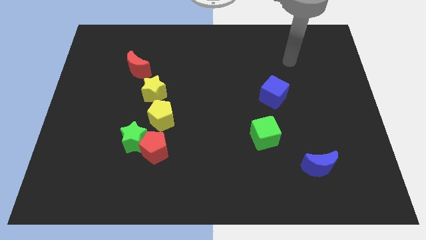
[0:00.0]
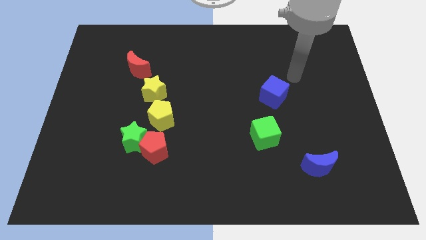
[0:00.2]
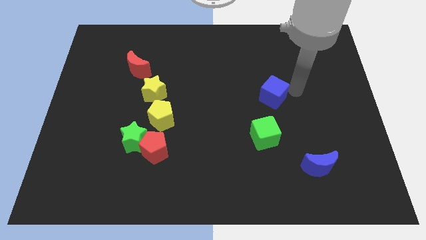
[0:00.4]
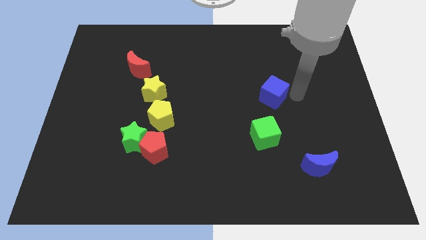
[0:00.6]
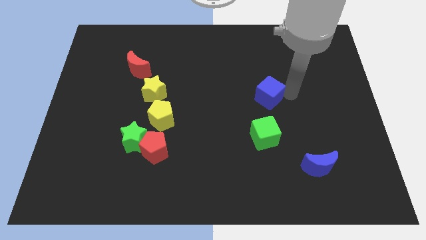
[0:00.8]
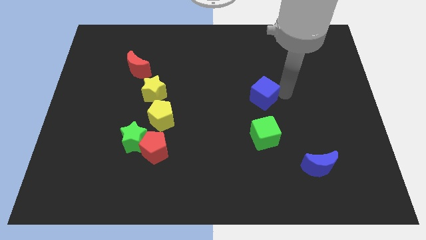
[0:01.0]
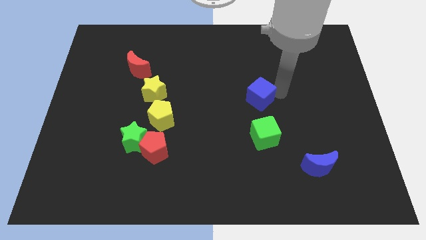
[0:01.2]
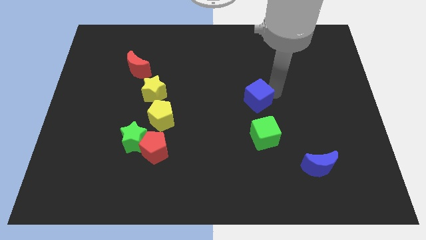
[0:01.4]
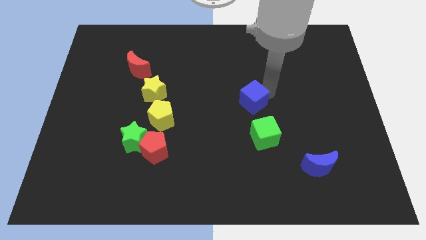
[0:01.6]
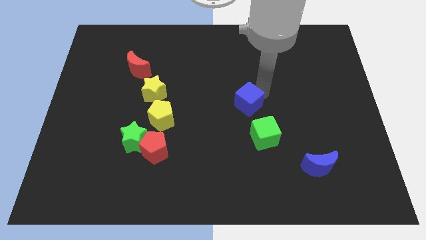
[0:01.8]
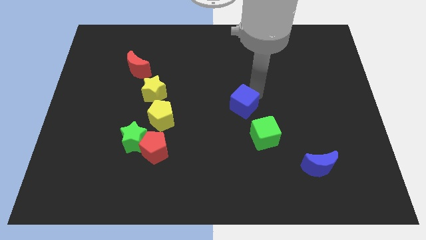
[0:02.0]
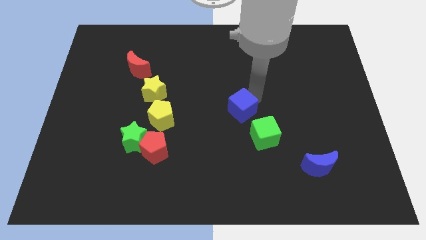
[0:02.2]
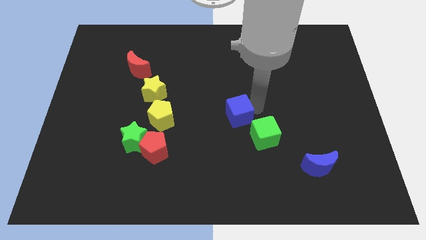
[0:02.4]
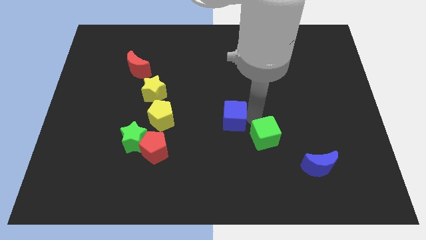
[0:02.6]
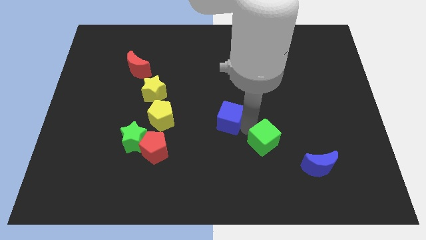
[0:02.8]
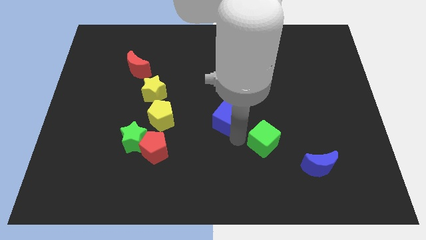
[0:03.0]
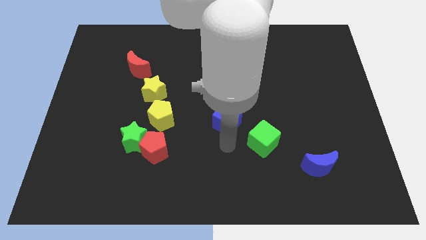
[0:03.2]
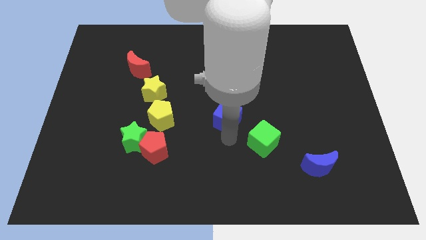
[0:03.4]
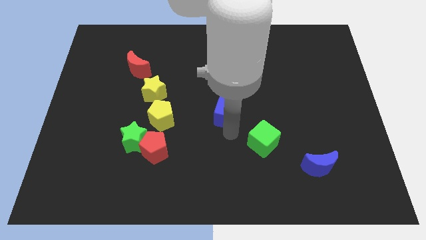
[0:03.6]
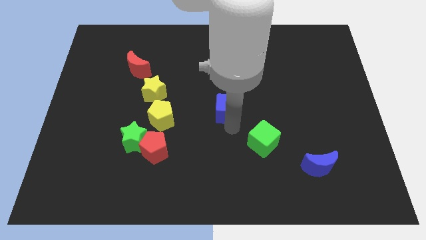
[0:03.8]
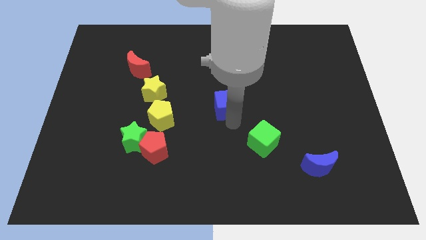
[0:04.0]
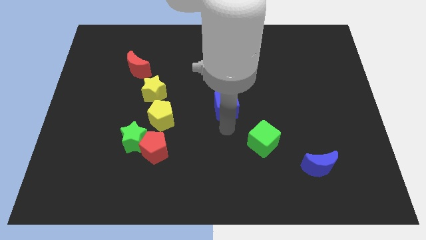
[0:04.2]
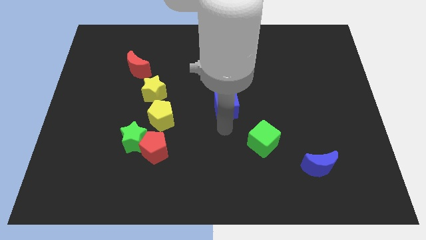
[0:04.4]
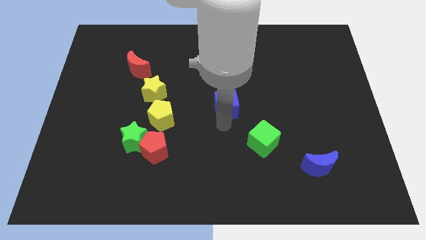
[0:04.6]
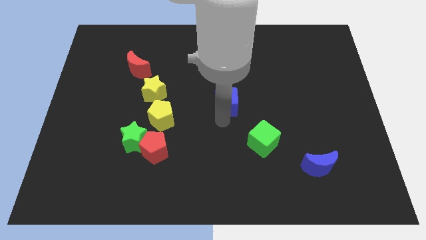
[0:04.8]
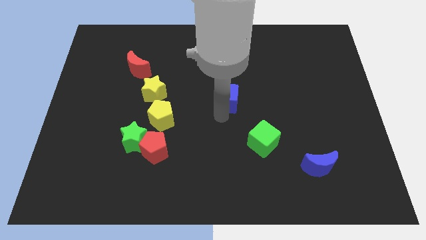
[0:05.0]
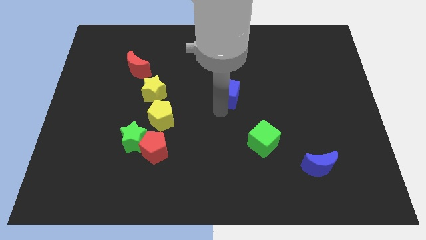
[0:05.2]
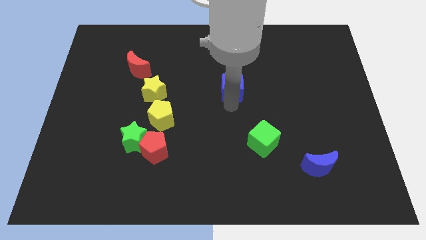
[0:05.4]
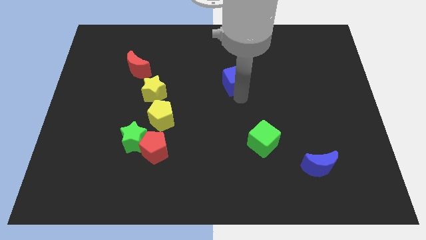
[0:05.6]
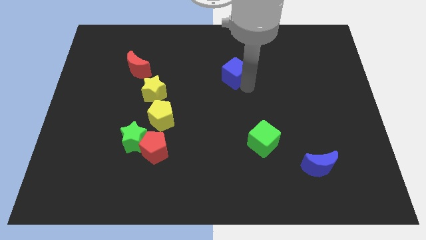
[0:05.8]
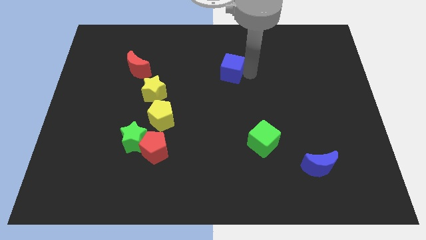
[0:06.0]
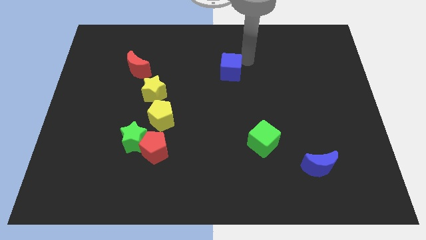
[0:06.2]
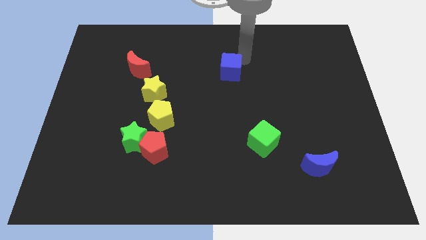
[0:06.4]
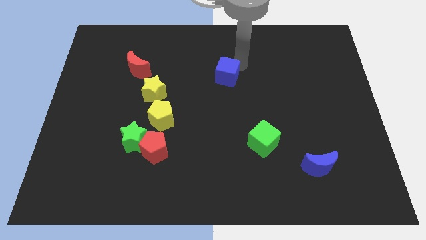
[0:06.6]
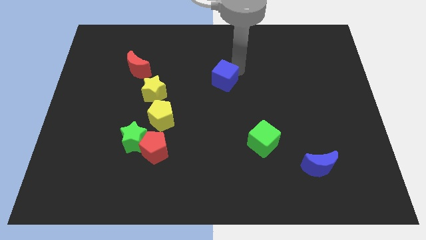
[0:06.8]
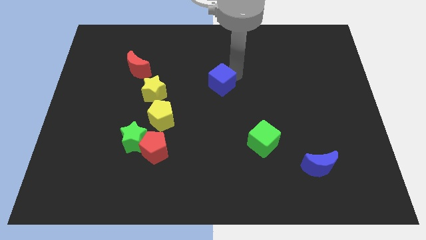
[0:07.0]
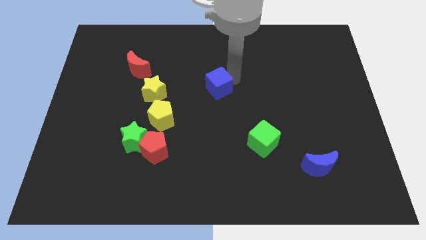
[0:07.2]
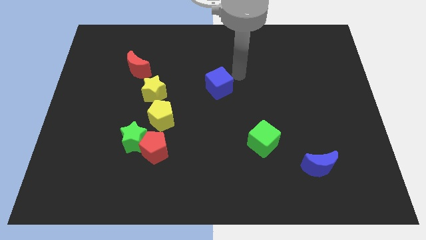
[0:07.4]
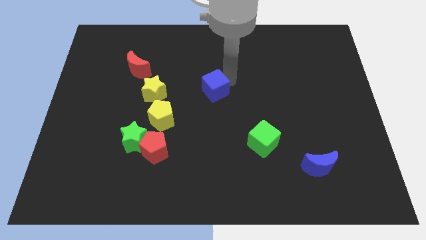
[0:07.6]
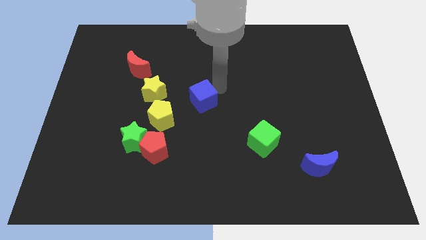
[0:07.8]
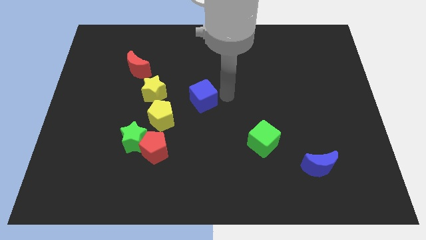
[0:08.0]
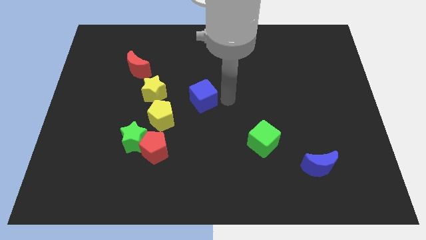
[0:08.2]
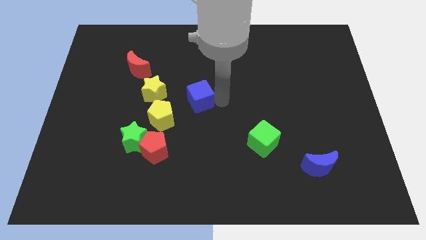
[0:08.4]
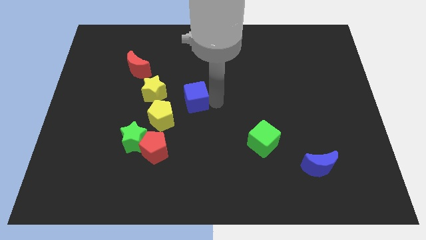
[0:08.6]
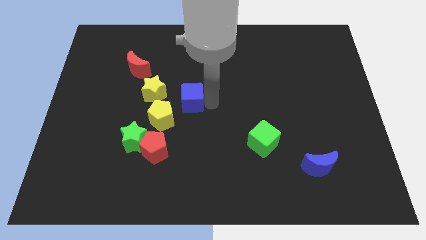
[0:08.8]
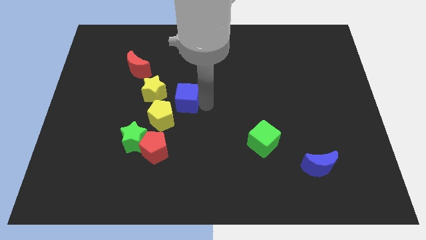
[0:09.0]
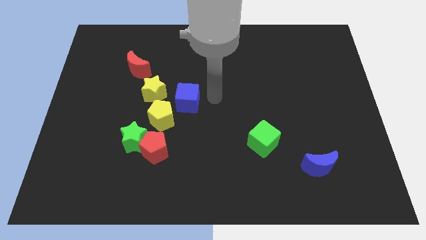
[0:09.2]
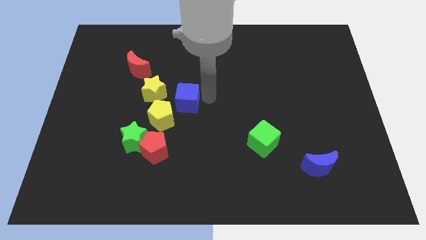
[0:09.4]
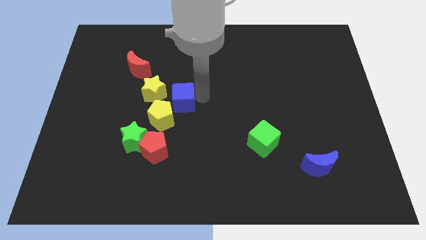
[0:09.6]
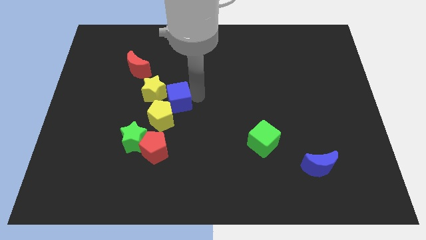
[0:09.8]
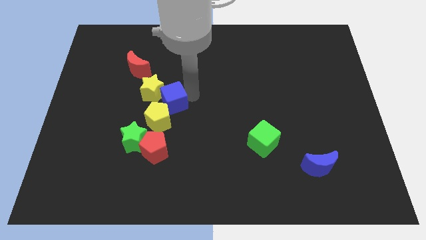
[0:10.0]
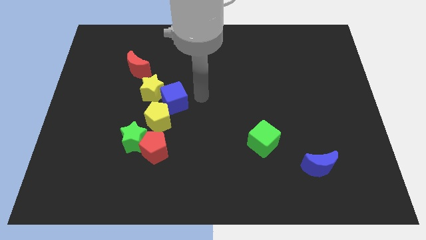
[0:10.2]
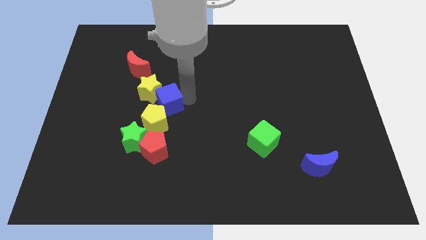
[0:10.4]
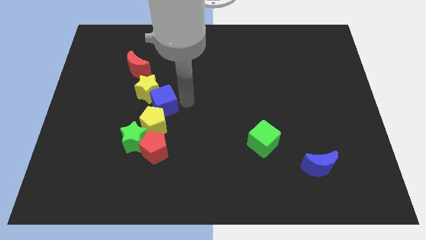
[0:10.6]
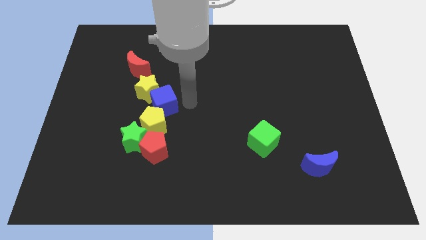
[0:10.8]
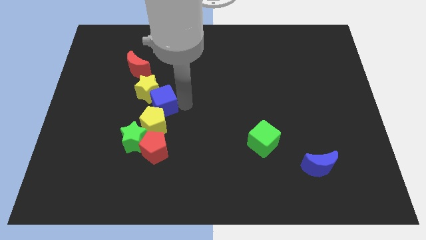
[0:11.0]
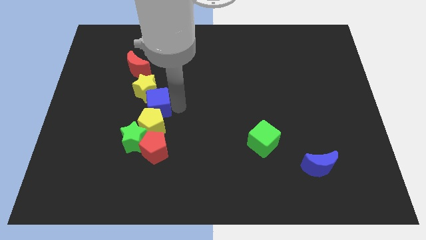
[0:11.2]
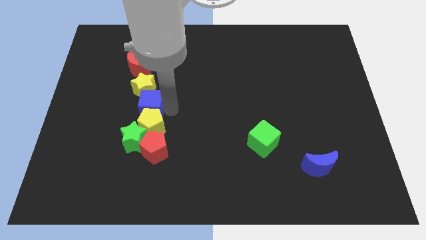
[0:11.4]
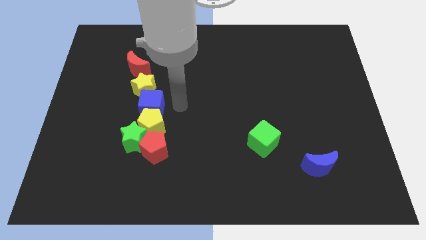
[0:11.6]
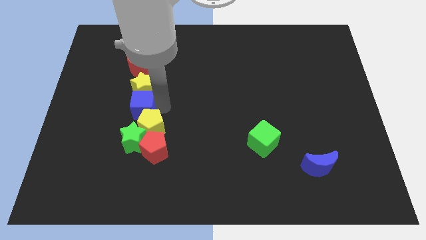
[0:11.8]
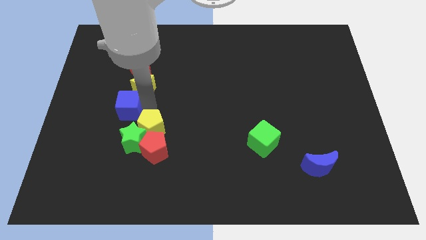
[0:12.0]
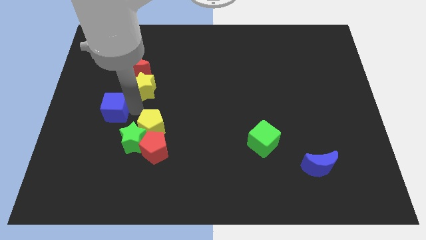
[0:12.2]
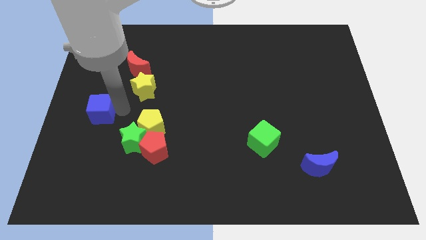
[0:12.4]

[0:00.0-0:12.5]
slide the blue cube to the left side of the board

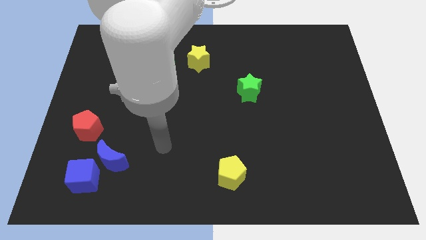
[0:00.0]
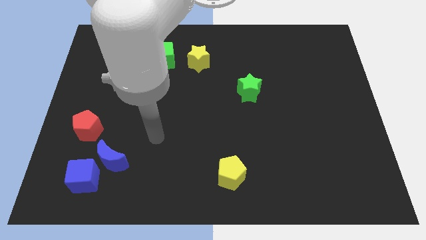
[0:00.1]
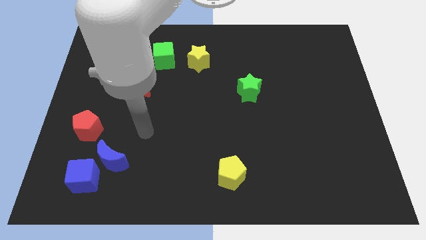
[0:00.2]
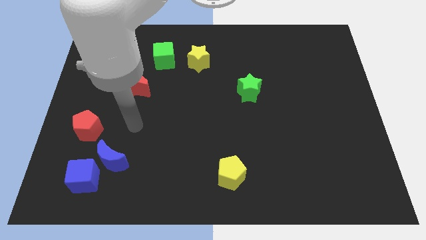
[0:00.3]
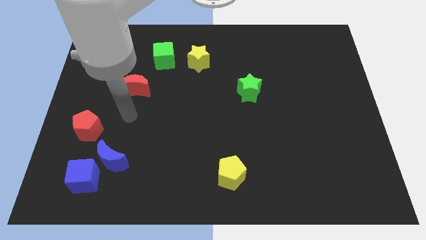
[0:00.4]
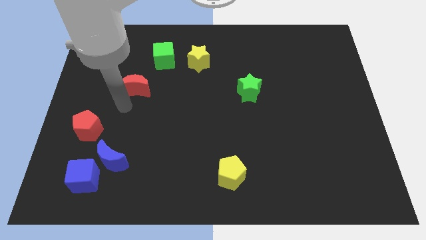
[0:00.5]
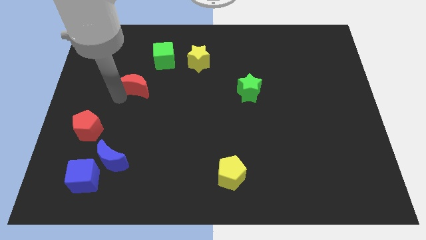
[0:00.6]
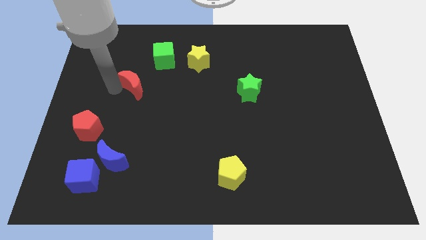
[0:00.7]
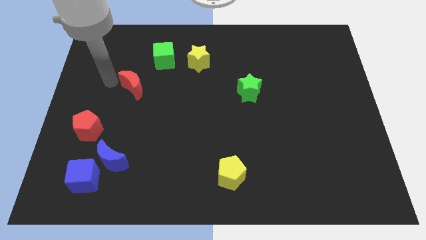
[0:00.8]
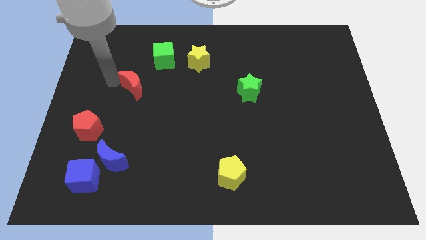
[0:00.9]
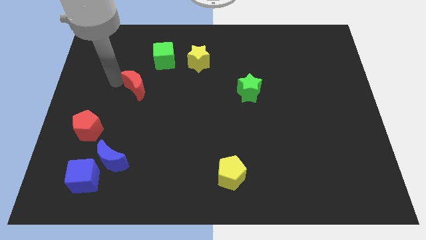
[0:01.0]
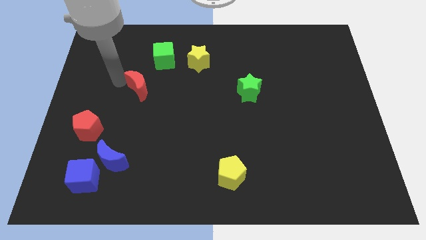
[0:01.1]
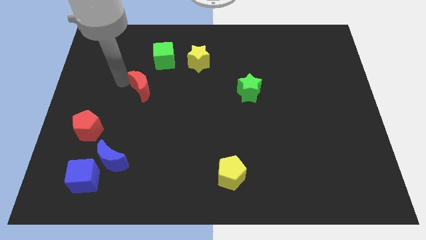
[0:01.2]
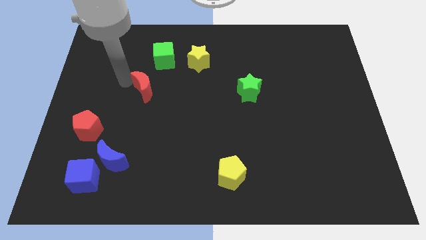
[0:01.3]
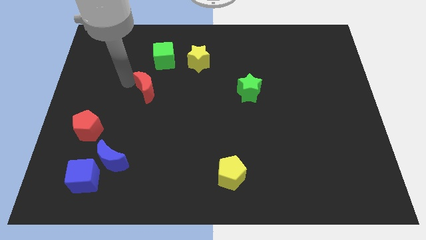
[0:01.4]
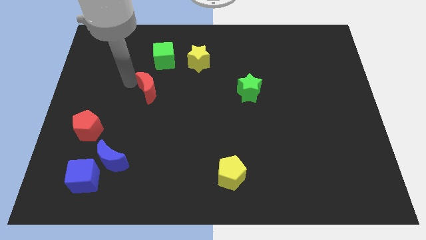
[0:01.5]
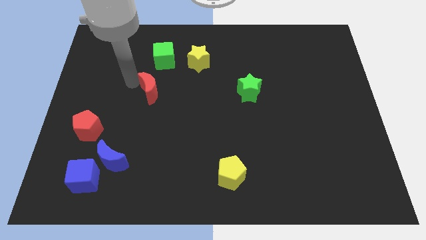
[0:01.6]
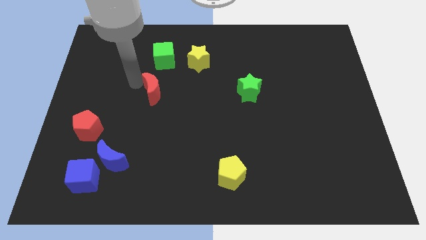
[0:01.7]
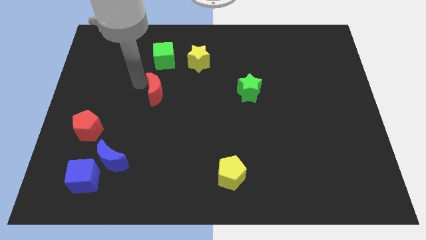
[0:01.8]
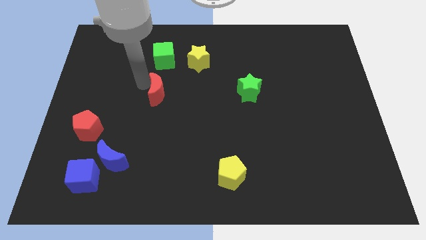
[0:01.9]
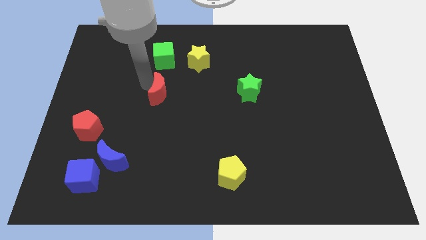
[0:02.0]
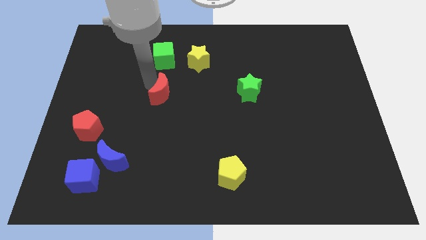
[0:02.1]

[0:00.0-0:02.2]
slide the red moon to the center of the board
